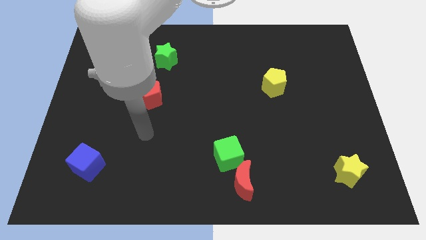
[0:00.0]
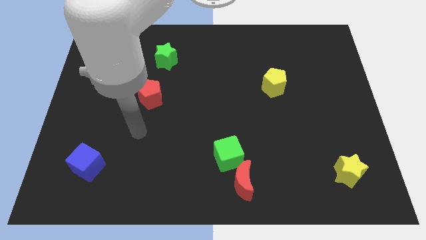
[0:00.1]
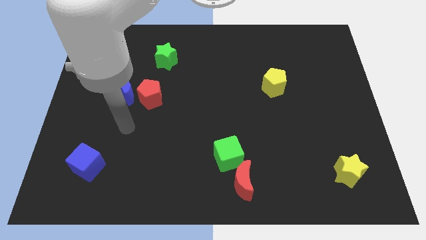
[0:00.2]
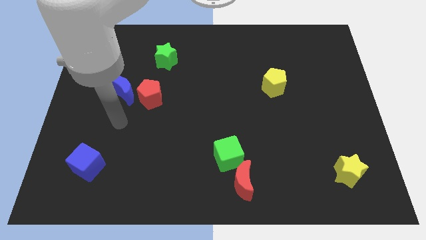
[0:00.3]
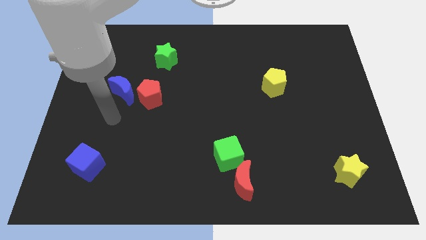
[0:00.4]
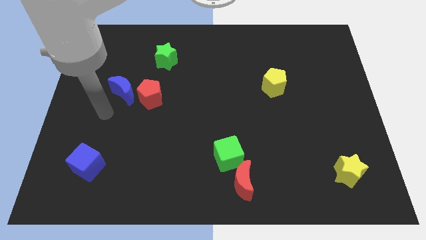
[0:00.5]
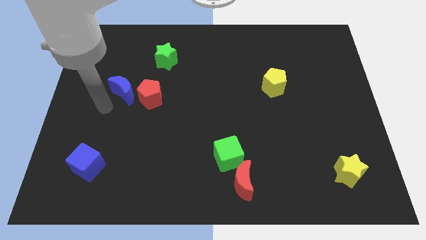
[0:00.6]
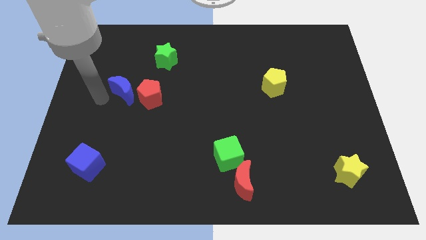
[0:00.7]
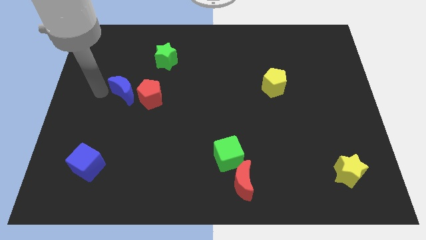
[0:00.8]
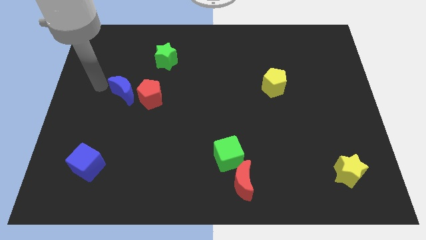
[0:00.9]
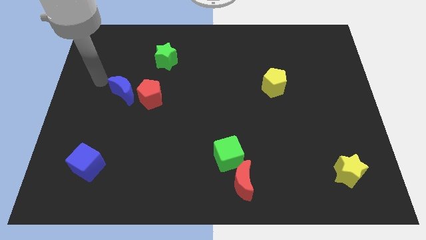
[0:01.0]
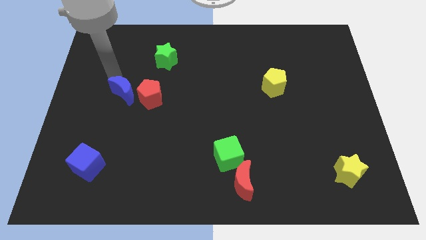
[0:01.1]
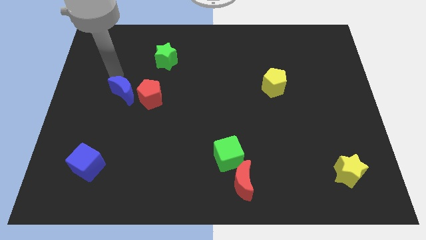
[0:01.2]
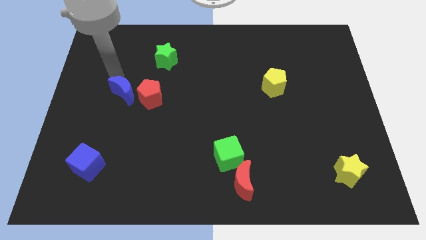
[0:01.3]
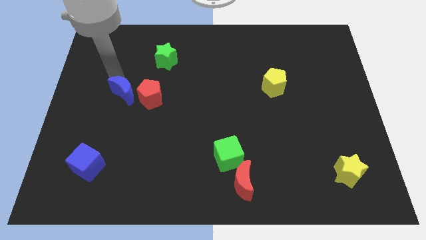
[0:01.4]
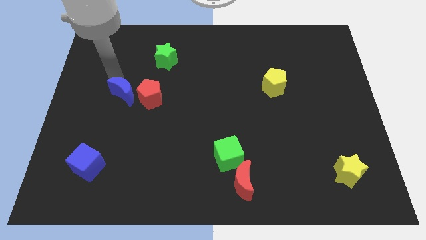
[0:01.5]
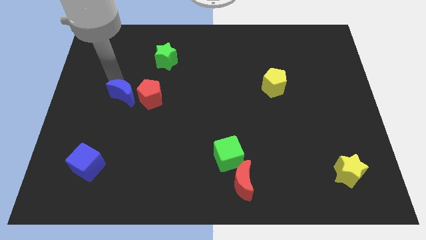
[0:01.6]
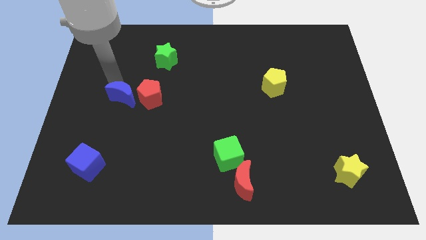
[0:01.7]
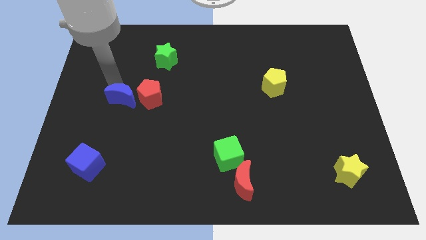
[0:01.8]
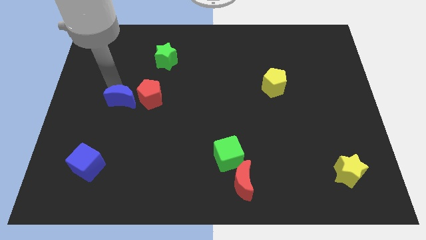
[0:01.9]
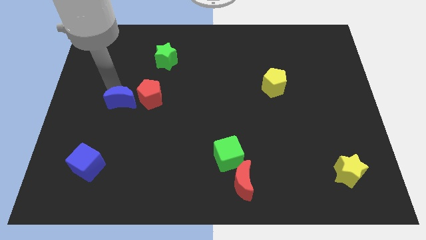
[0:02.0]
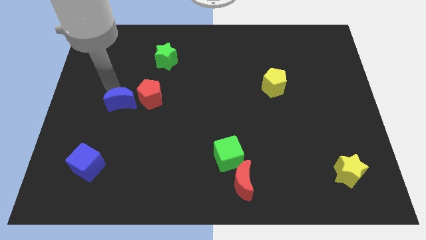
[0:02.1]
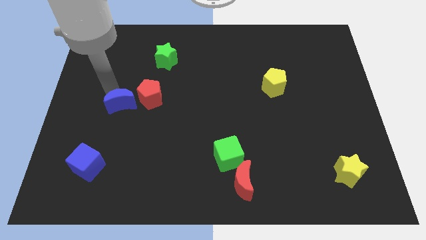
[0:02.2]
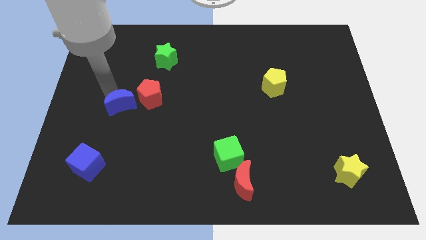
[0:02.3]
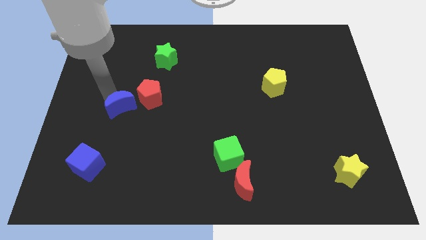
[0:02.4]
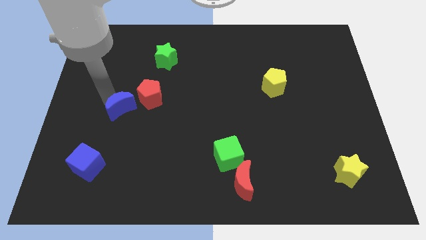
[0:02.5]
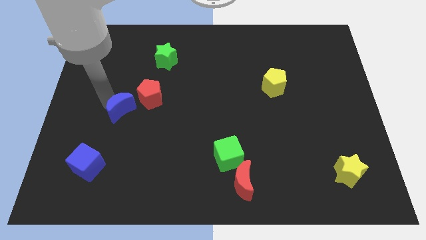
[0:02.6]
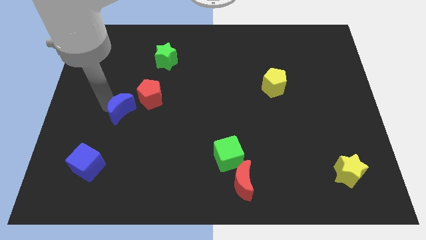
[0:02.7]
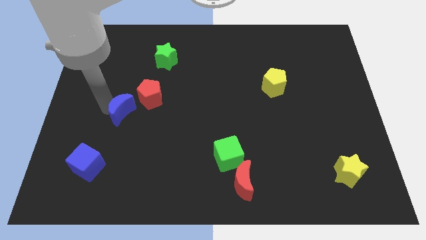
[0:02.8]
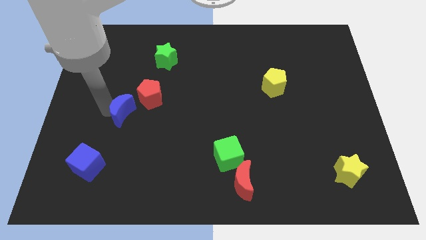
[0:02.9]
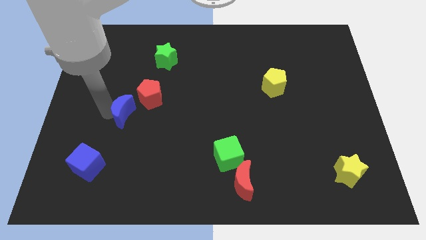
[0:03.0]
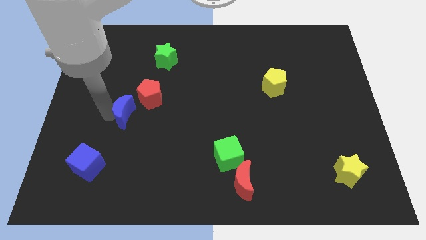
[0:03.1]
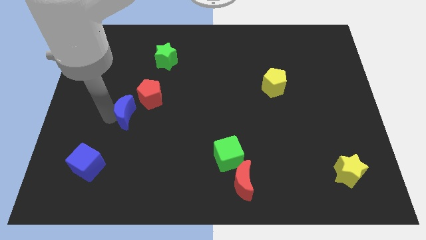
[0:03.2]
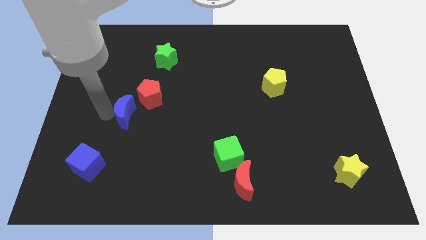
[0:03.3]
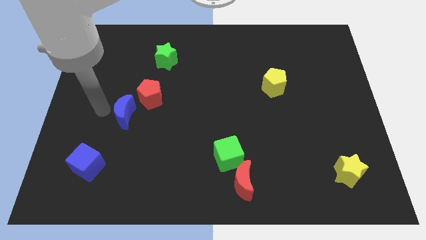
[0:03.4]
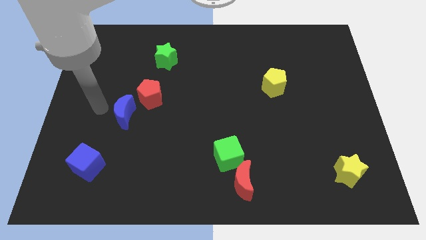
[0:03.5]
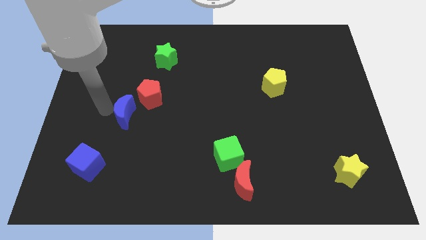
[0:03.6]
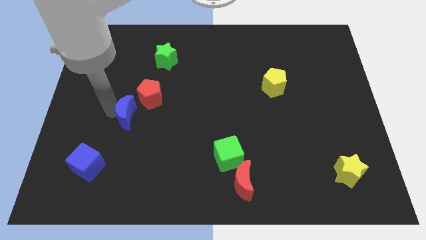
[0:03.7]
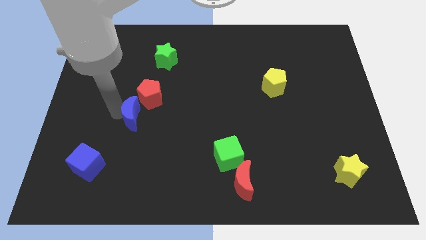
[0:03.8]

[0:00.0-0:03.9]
slightly slide the blue moon down and to the right

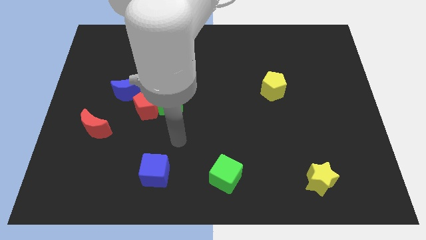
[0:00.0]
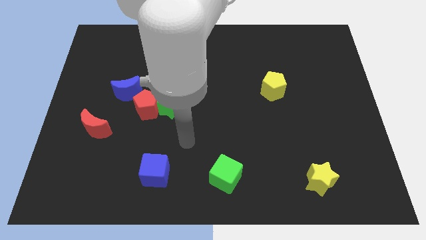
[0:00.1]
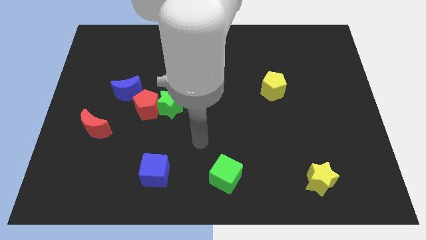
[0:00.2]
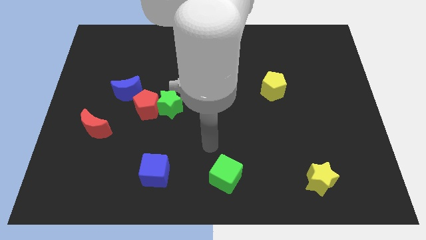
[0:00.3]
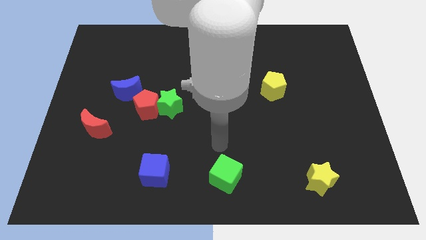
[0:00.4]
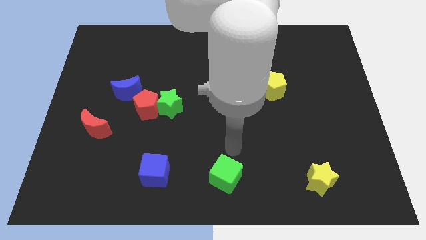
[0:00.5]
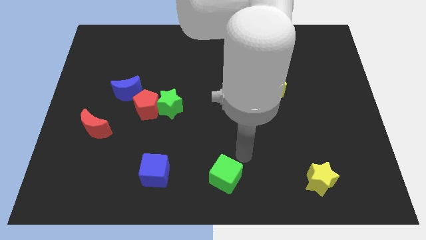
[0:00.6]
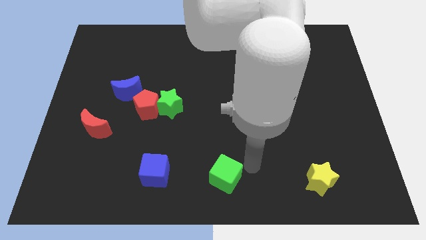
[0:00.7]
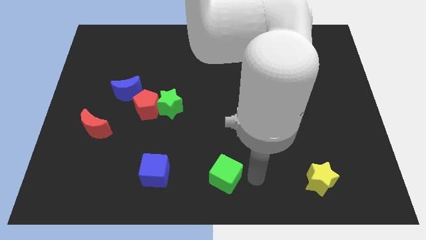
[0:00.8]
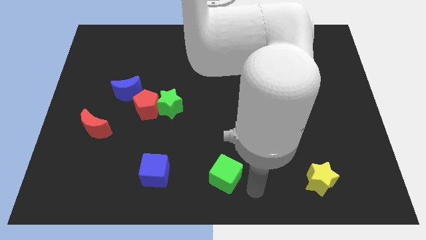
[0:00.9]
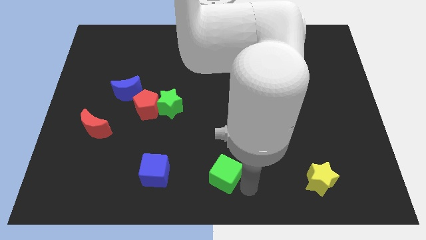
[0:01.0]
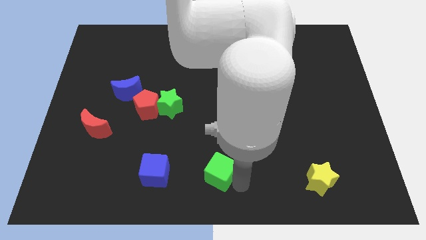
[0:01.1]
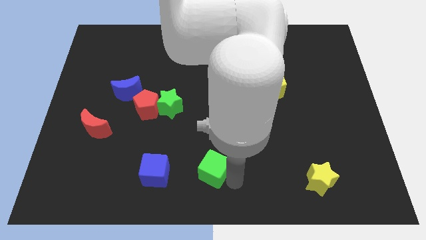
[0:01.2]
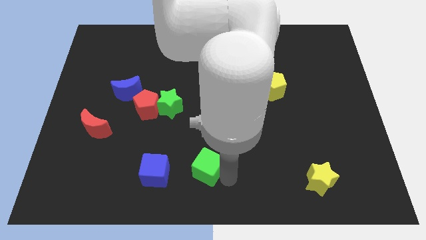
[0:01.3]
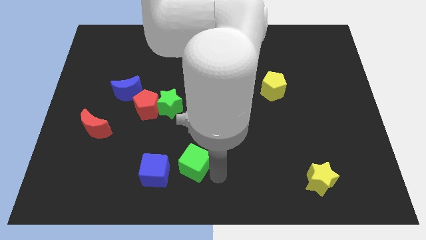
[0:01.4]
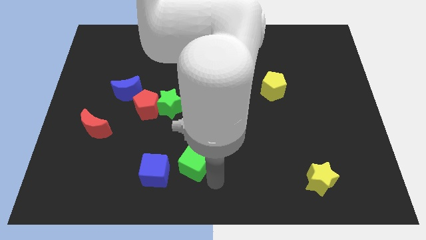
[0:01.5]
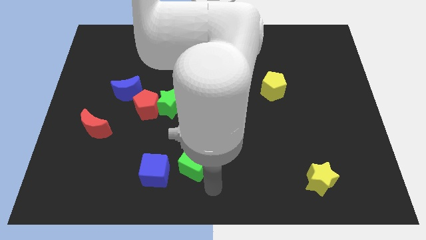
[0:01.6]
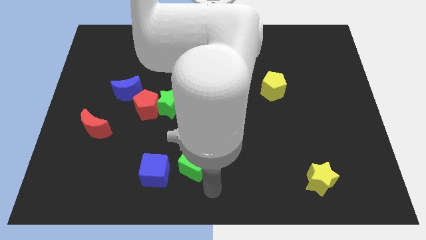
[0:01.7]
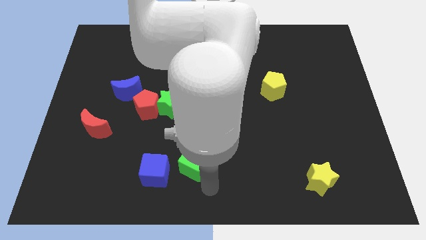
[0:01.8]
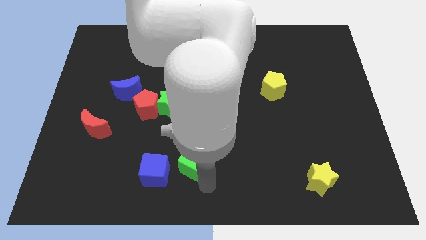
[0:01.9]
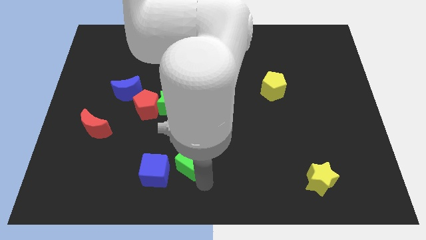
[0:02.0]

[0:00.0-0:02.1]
push the green cube a little bit diagonally upwards and left

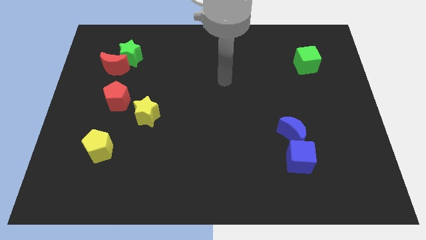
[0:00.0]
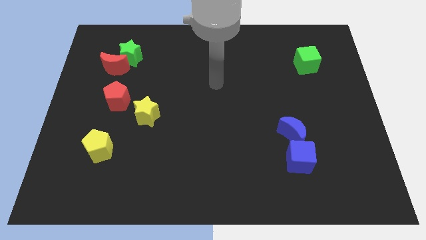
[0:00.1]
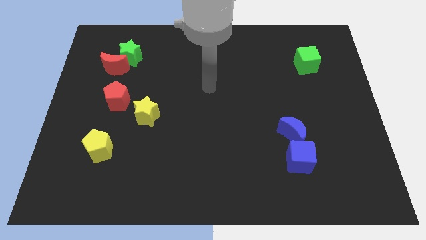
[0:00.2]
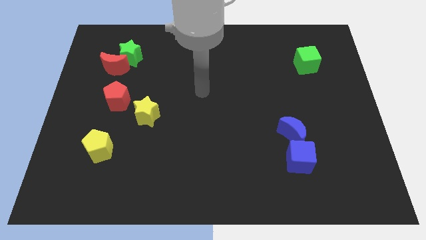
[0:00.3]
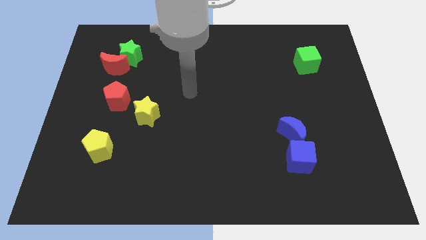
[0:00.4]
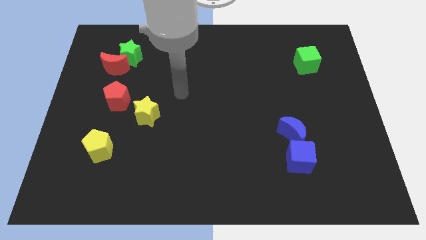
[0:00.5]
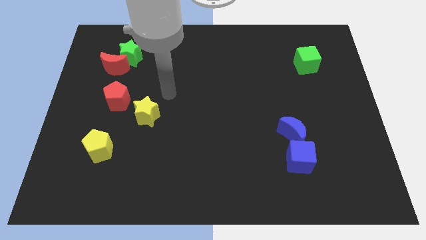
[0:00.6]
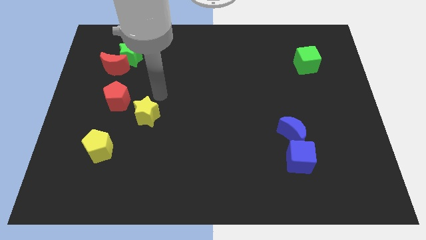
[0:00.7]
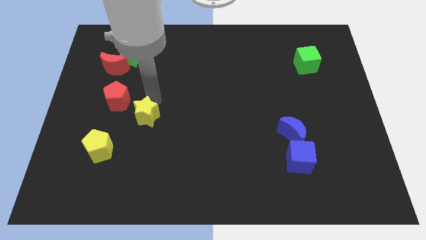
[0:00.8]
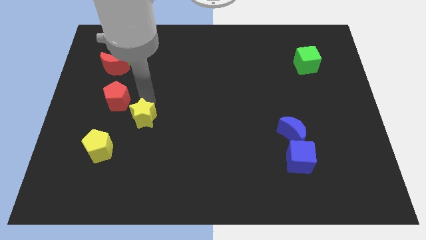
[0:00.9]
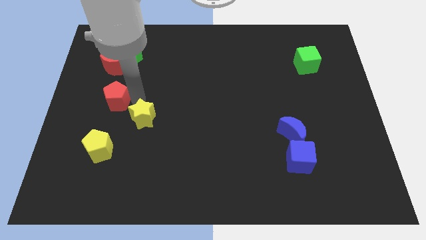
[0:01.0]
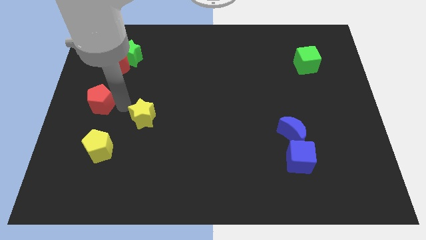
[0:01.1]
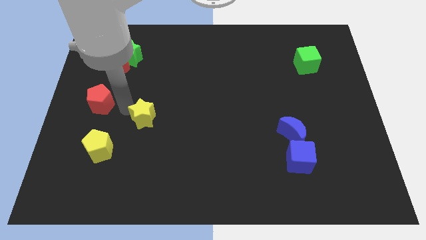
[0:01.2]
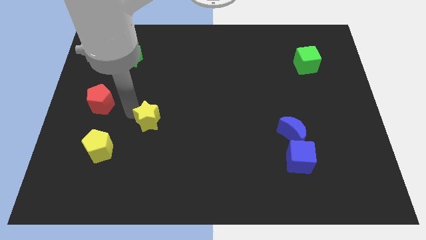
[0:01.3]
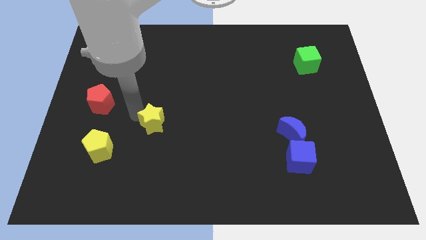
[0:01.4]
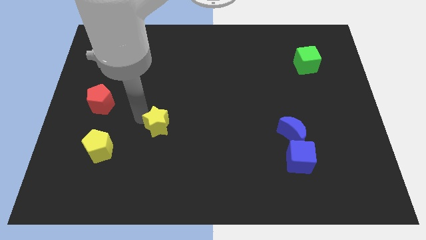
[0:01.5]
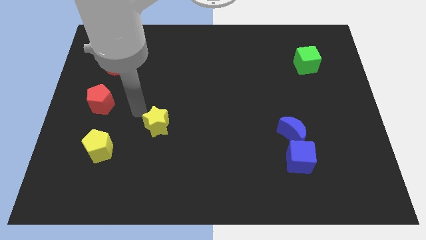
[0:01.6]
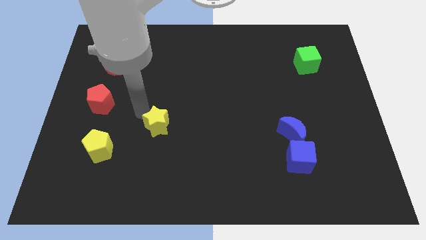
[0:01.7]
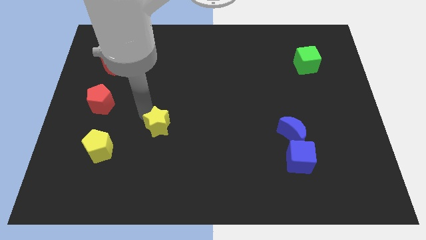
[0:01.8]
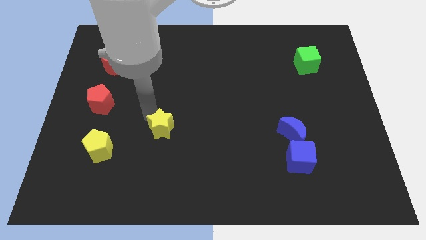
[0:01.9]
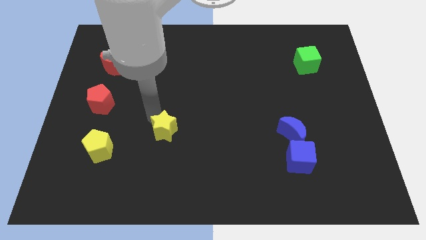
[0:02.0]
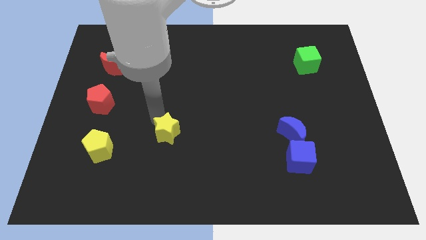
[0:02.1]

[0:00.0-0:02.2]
slightly slide the yellow star diagonally down and right

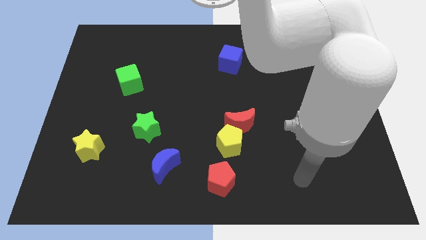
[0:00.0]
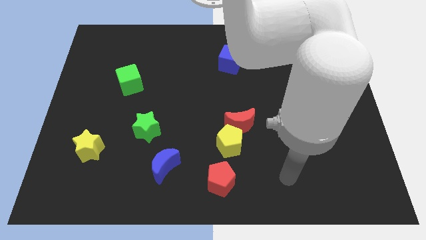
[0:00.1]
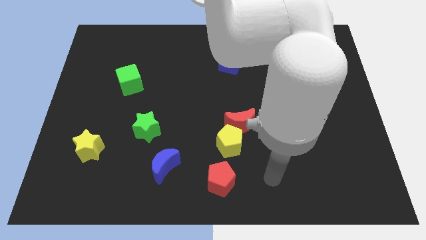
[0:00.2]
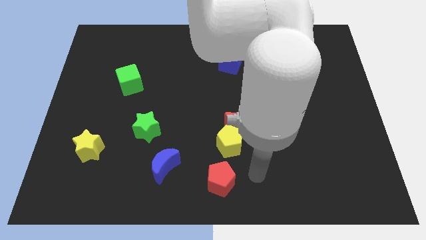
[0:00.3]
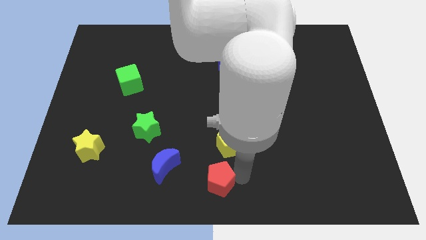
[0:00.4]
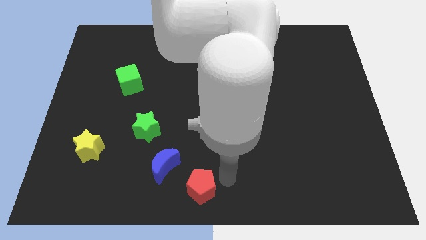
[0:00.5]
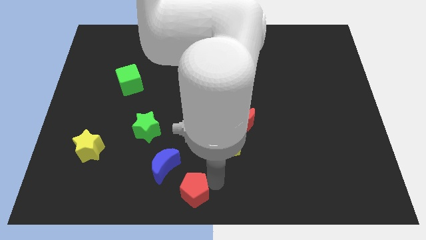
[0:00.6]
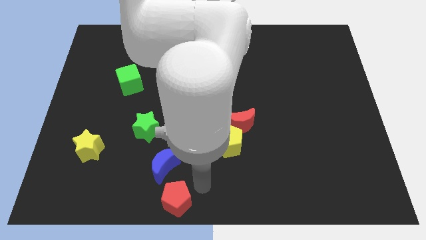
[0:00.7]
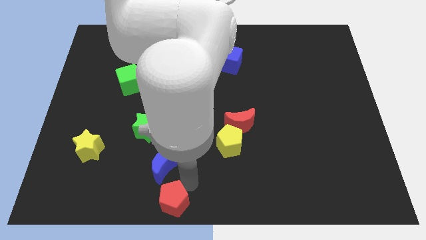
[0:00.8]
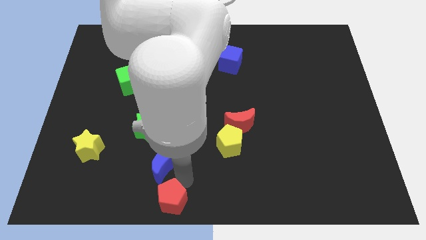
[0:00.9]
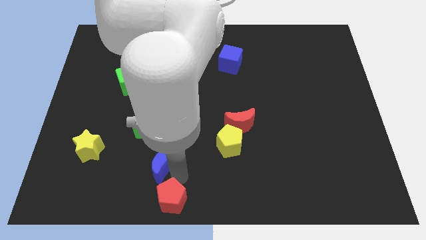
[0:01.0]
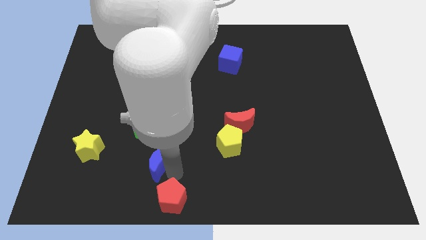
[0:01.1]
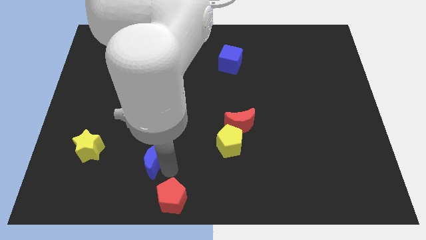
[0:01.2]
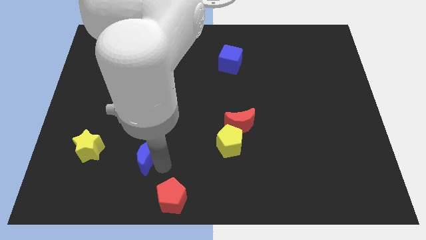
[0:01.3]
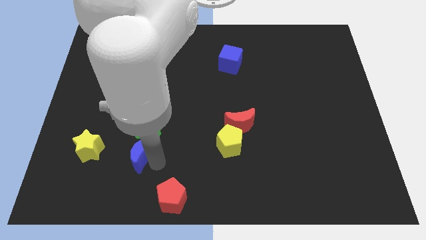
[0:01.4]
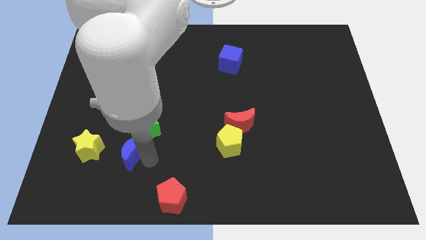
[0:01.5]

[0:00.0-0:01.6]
push the blue moon a little upwards and to the left diagonally
